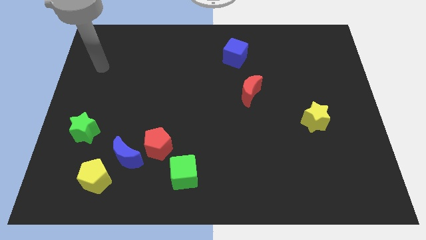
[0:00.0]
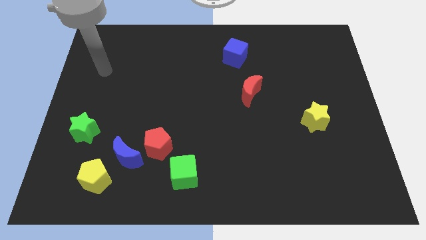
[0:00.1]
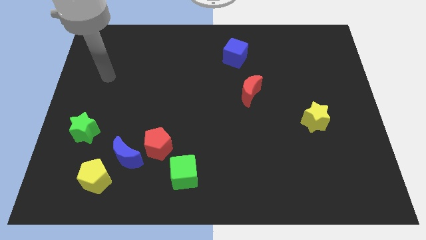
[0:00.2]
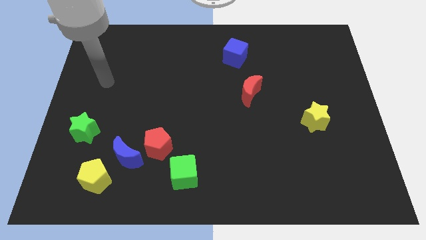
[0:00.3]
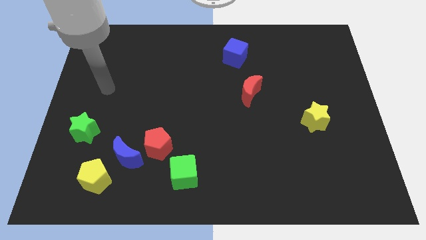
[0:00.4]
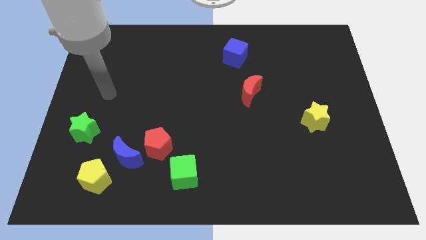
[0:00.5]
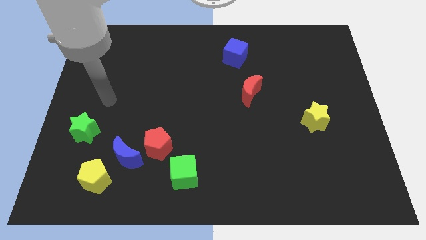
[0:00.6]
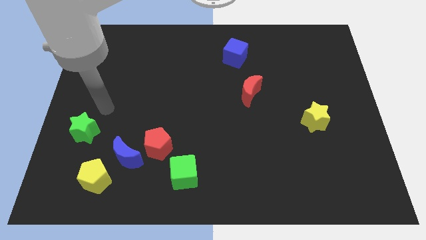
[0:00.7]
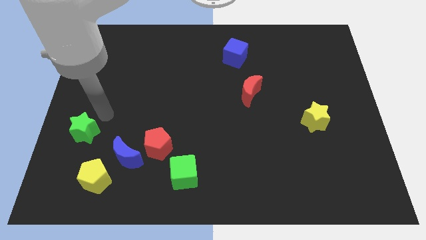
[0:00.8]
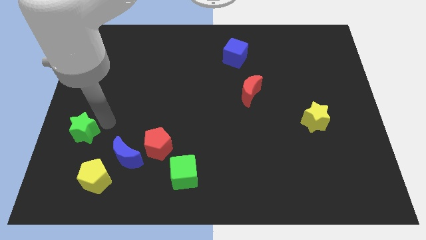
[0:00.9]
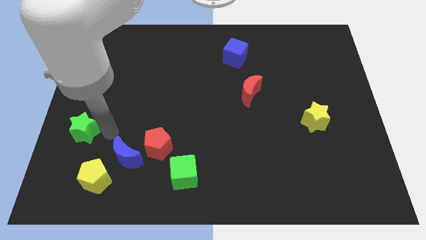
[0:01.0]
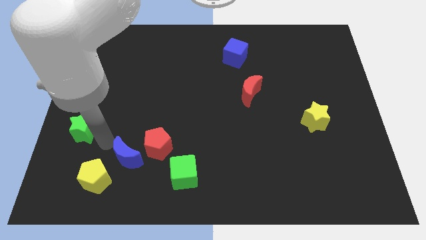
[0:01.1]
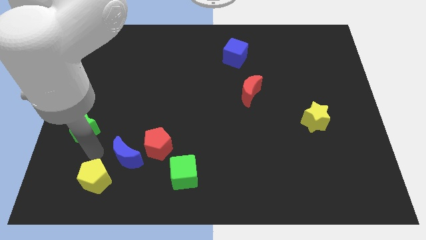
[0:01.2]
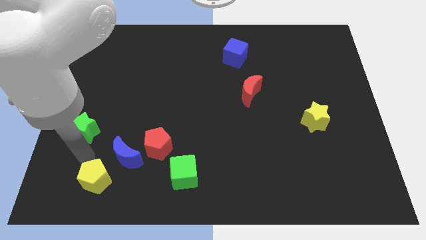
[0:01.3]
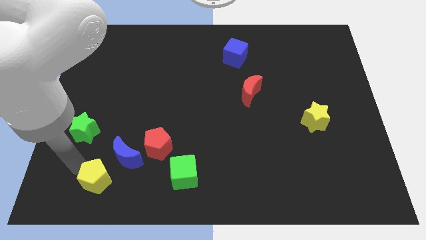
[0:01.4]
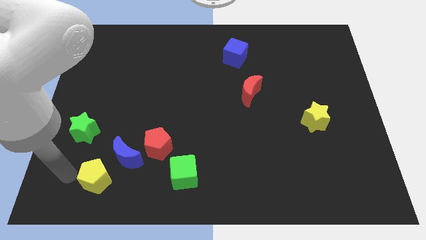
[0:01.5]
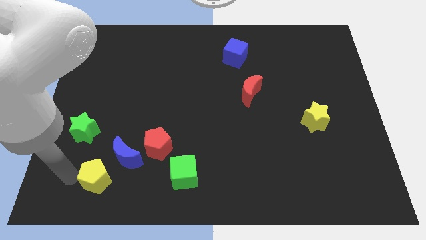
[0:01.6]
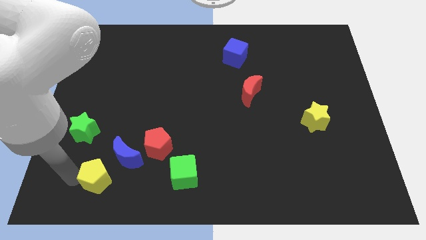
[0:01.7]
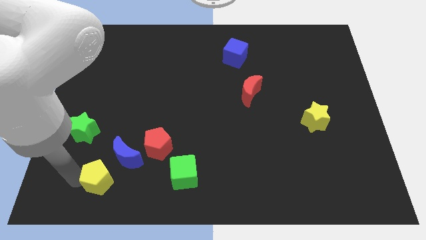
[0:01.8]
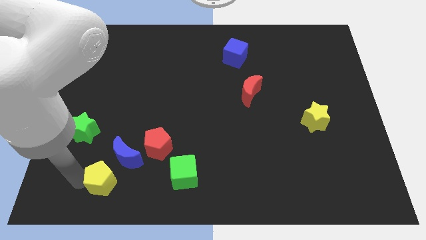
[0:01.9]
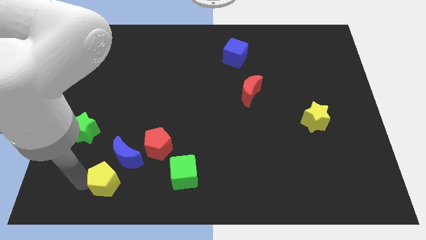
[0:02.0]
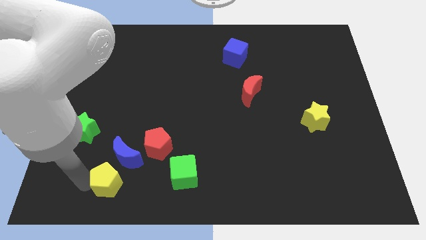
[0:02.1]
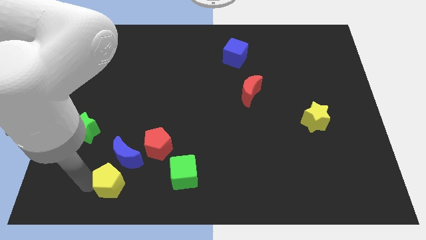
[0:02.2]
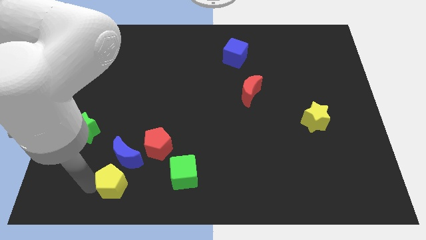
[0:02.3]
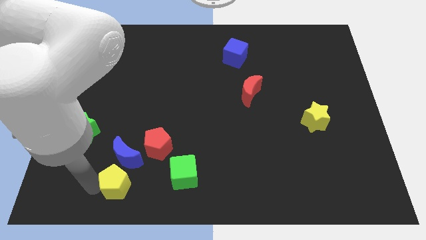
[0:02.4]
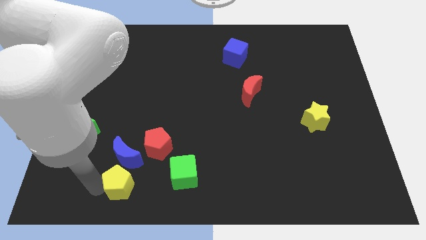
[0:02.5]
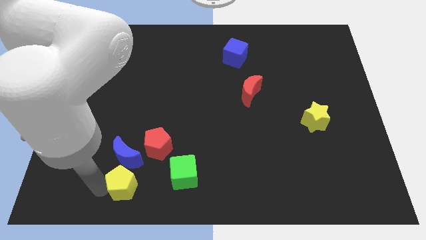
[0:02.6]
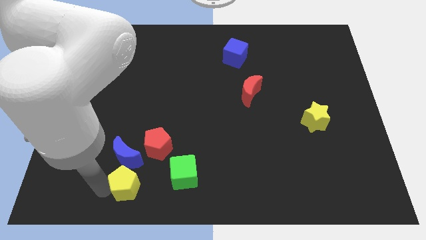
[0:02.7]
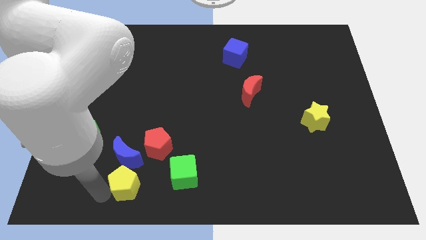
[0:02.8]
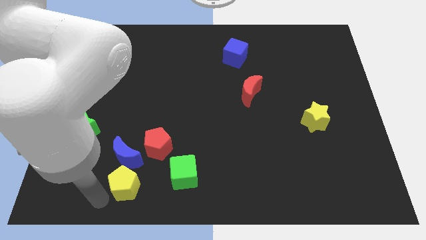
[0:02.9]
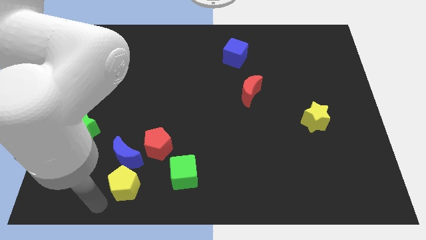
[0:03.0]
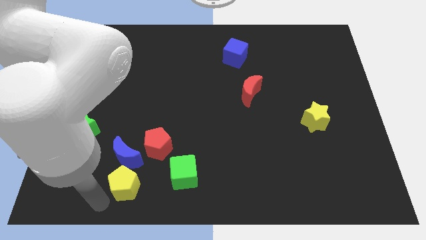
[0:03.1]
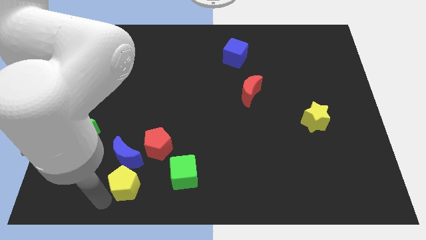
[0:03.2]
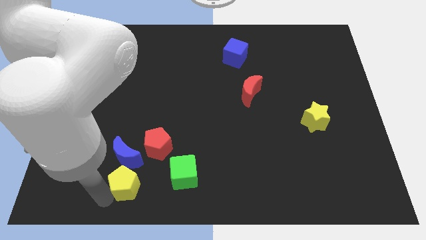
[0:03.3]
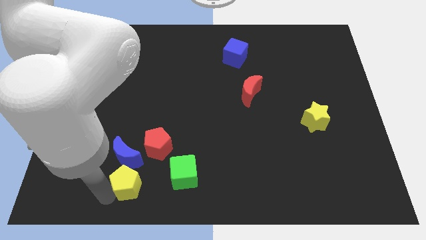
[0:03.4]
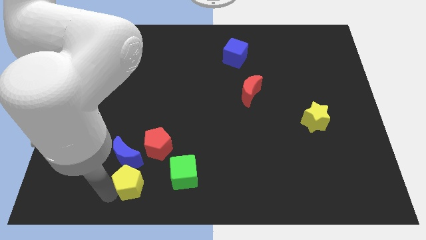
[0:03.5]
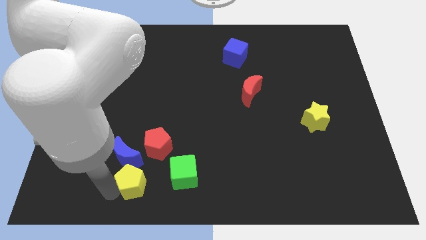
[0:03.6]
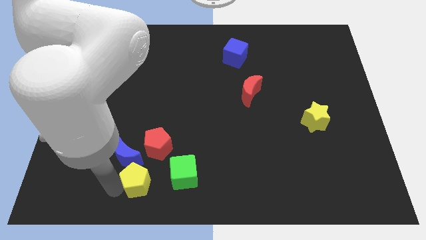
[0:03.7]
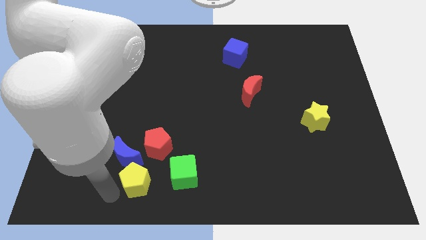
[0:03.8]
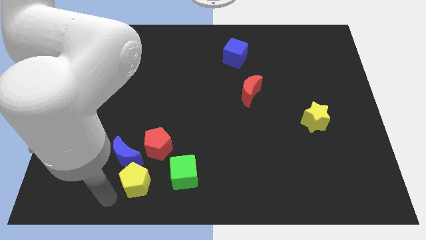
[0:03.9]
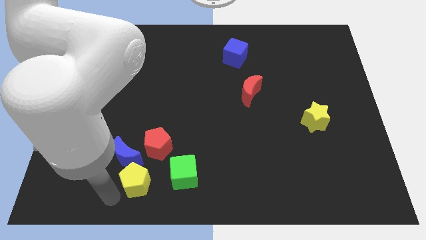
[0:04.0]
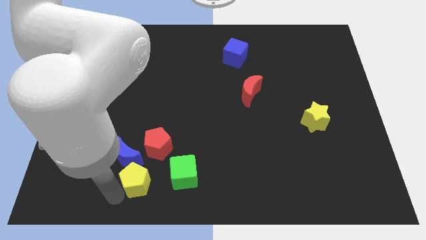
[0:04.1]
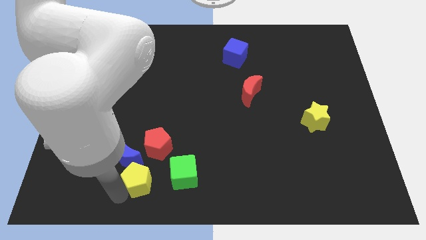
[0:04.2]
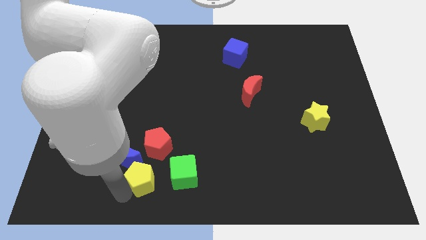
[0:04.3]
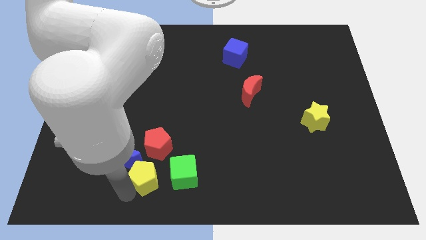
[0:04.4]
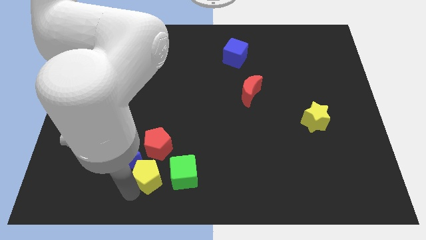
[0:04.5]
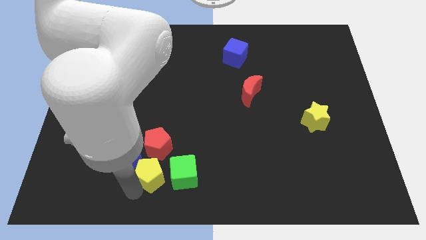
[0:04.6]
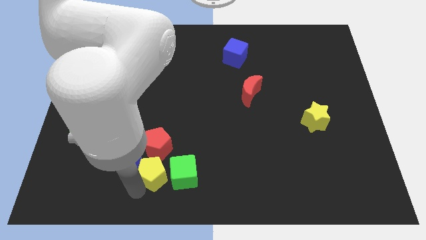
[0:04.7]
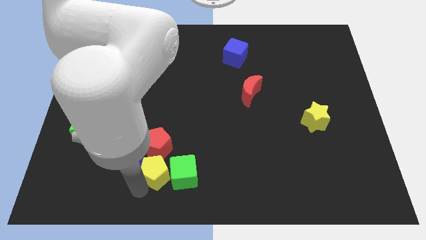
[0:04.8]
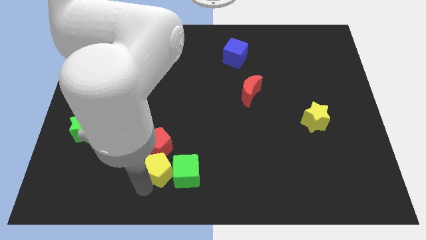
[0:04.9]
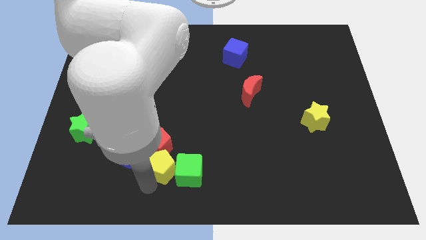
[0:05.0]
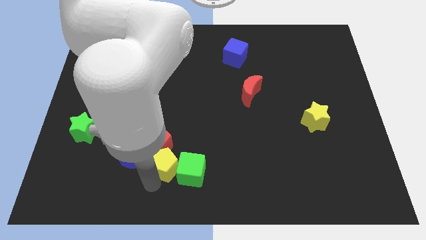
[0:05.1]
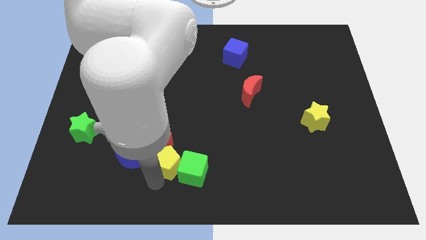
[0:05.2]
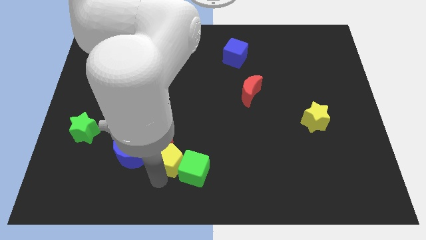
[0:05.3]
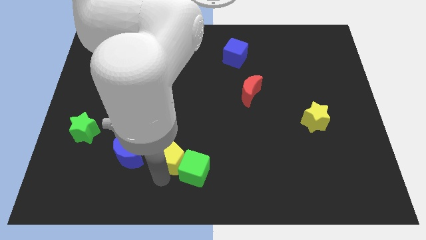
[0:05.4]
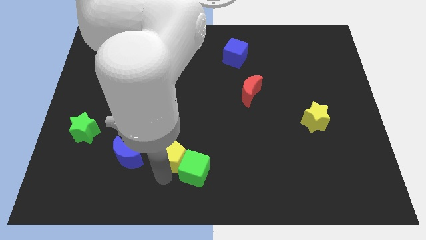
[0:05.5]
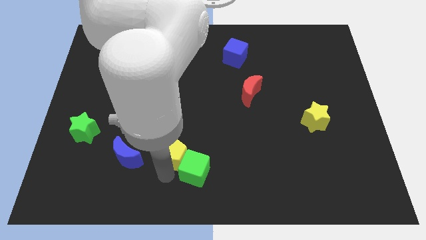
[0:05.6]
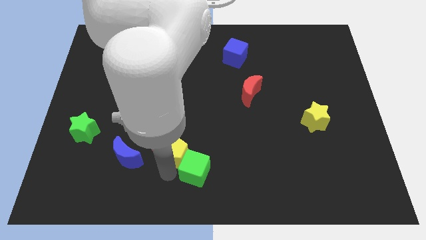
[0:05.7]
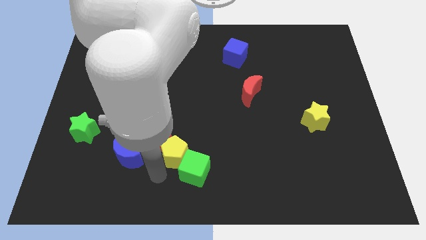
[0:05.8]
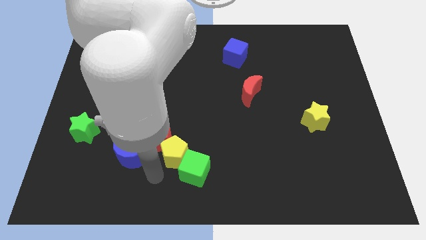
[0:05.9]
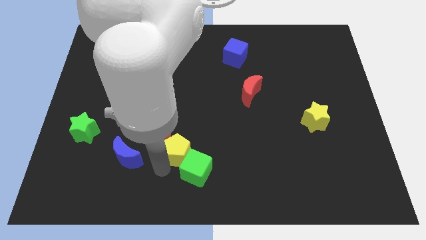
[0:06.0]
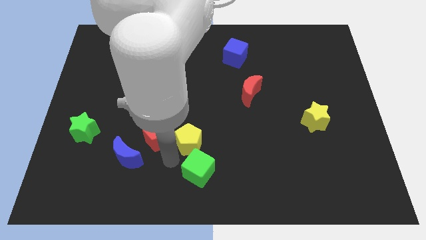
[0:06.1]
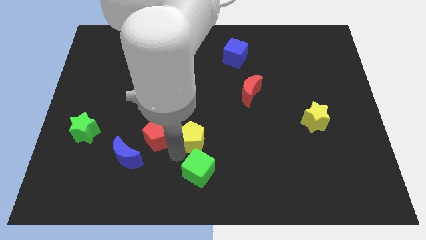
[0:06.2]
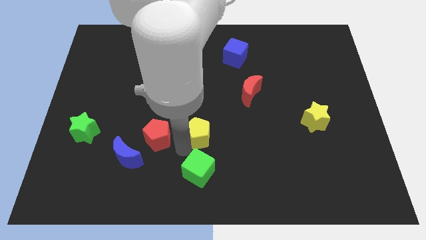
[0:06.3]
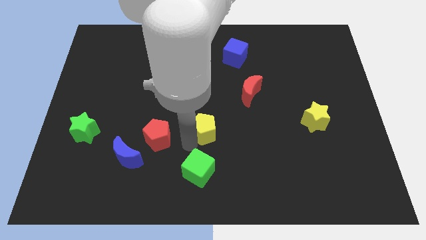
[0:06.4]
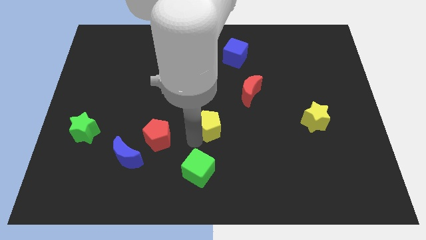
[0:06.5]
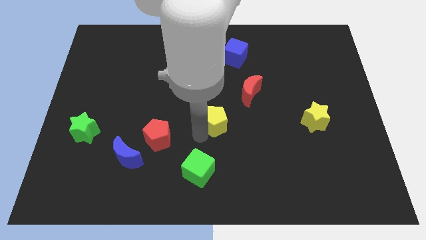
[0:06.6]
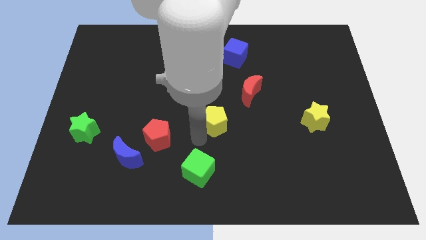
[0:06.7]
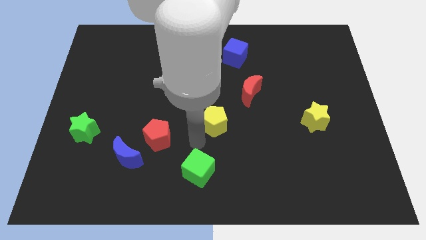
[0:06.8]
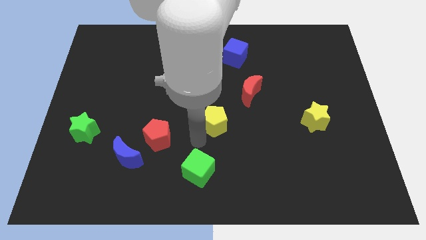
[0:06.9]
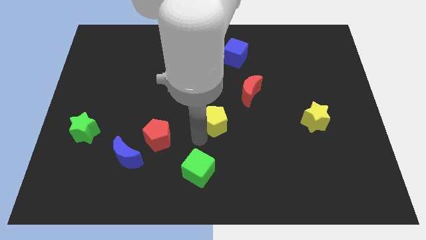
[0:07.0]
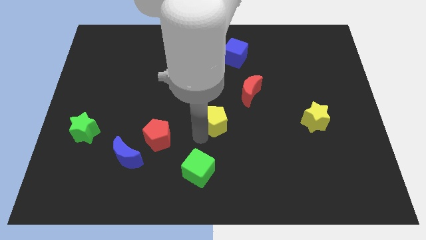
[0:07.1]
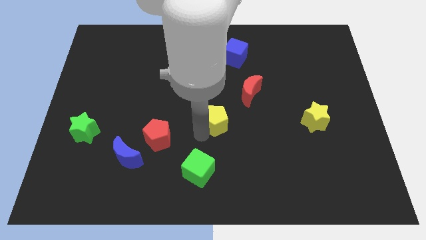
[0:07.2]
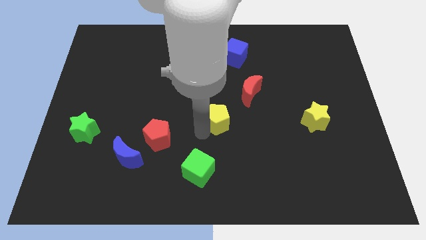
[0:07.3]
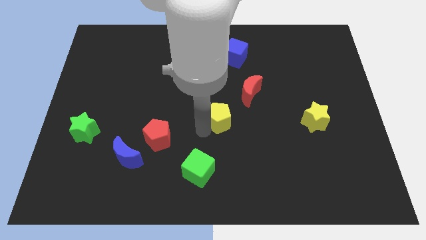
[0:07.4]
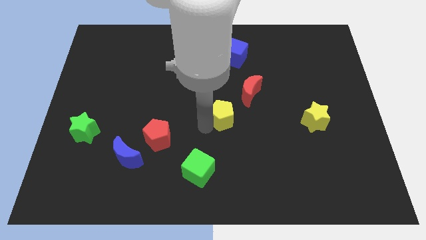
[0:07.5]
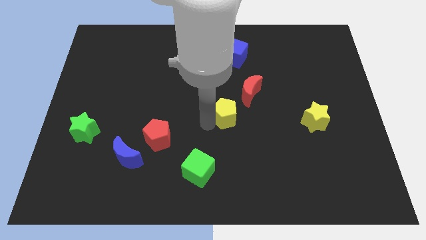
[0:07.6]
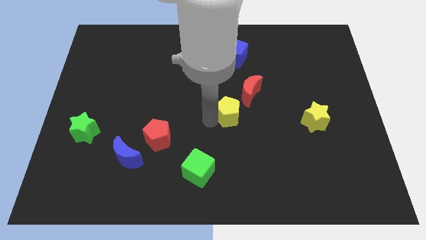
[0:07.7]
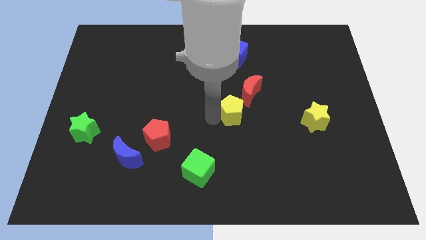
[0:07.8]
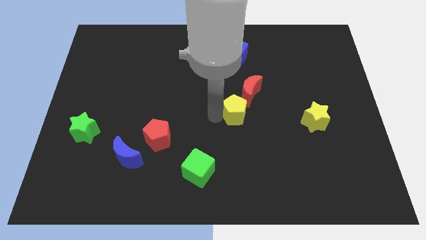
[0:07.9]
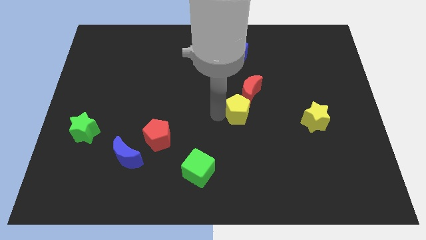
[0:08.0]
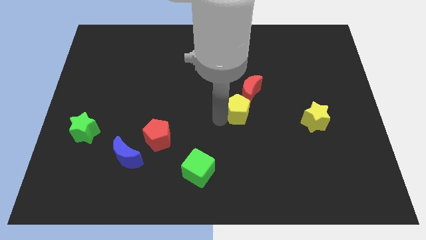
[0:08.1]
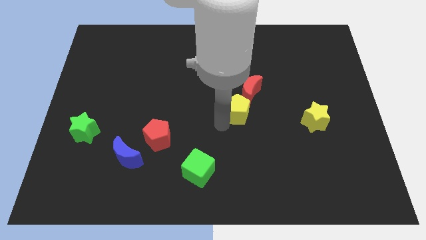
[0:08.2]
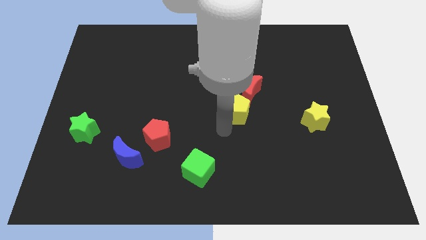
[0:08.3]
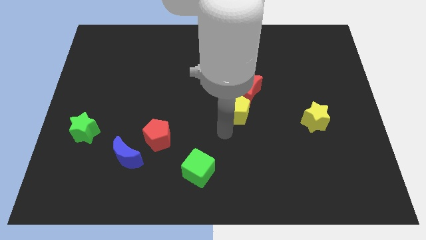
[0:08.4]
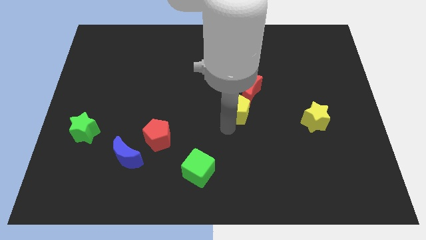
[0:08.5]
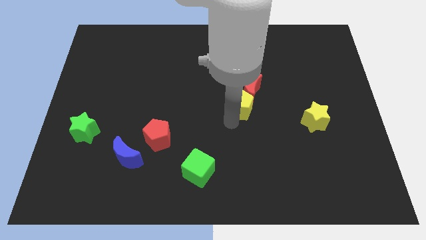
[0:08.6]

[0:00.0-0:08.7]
move the yellow pentagon to the red moon
